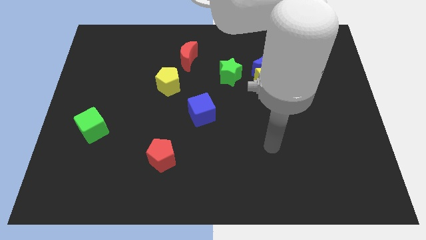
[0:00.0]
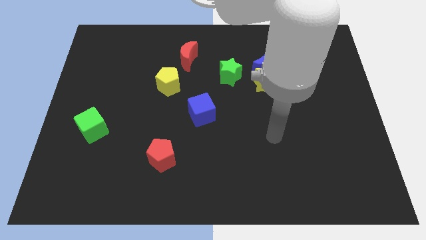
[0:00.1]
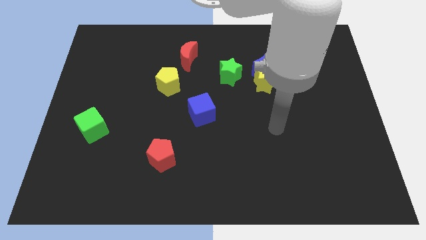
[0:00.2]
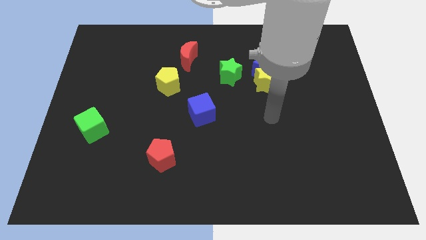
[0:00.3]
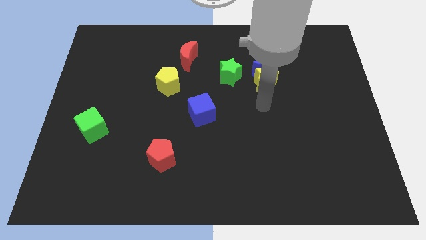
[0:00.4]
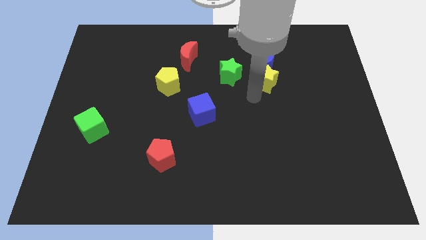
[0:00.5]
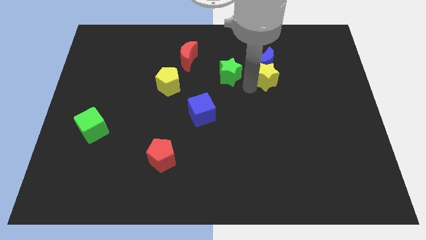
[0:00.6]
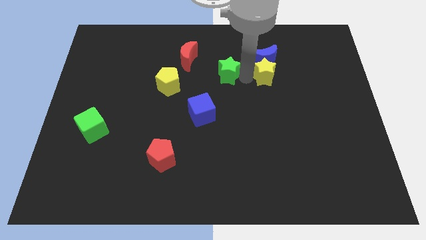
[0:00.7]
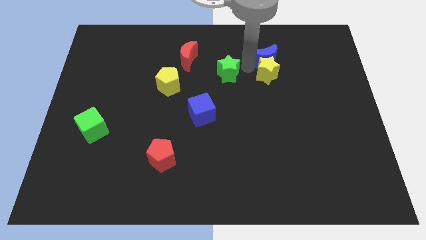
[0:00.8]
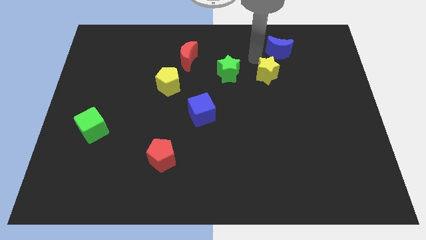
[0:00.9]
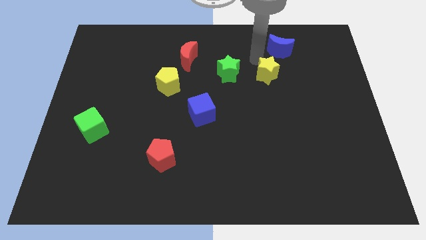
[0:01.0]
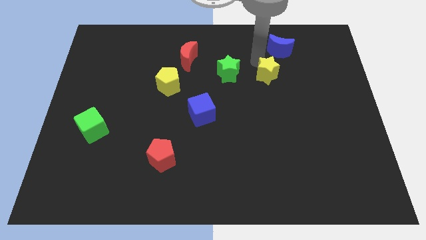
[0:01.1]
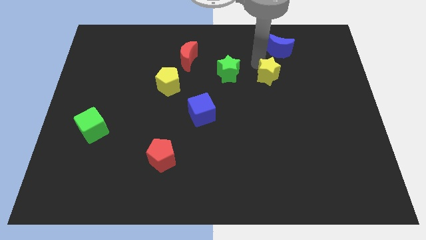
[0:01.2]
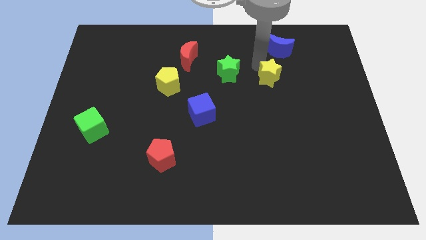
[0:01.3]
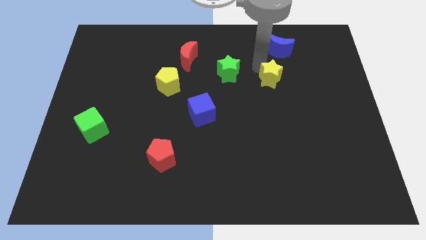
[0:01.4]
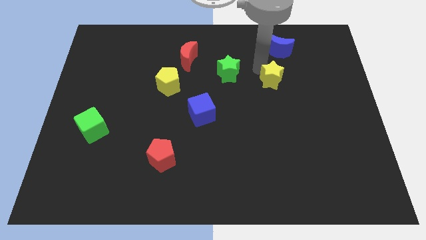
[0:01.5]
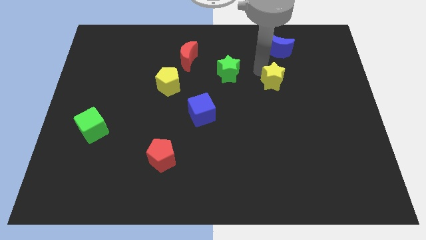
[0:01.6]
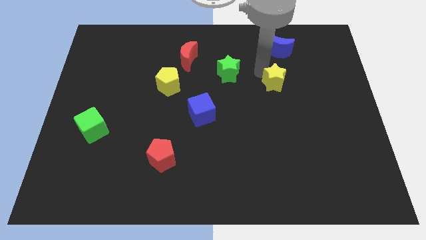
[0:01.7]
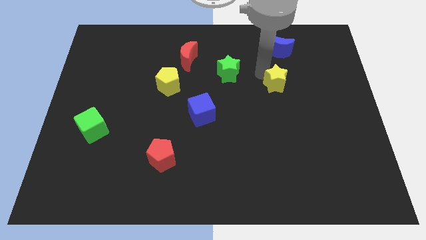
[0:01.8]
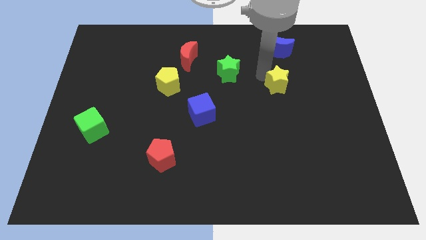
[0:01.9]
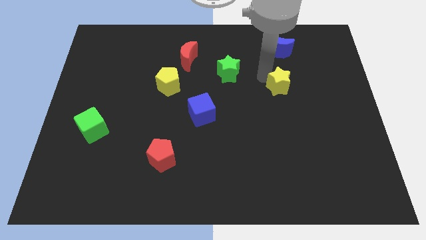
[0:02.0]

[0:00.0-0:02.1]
move the yellow star away from the blue moon and green star

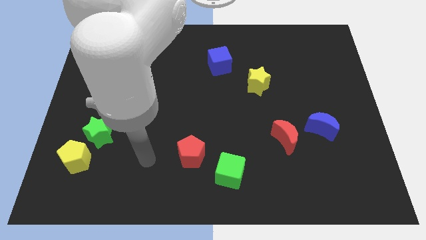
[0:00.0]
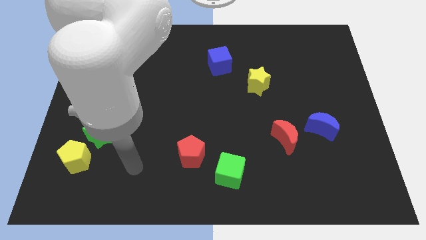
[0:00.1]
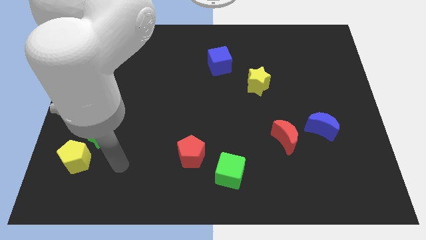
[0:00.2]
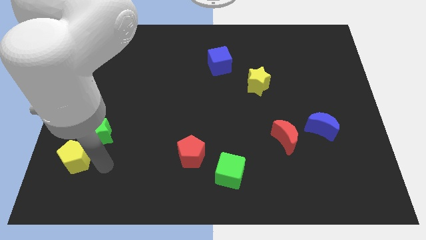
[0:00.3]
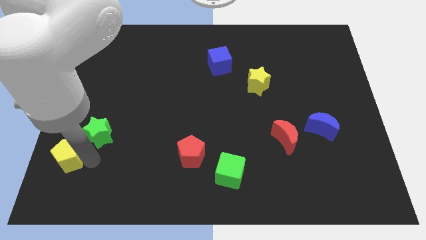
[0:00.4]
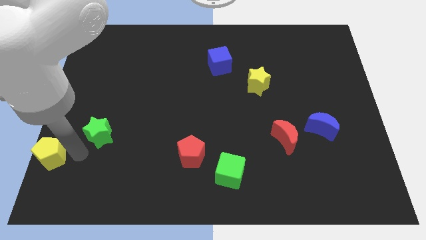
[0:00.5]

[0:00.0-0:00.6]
pull the green star apart from the yellow pentagon

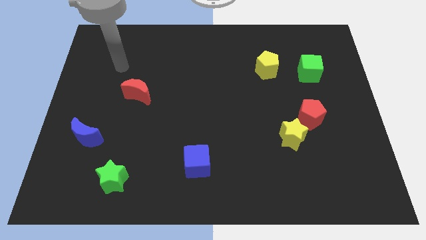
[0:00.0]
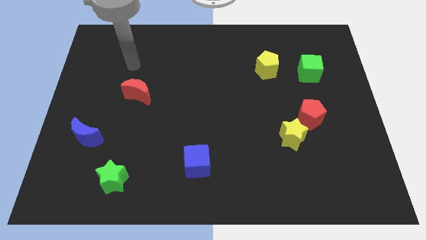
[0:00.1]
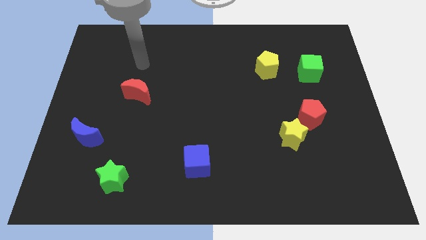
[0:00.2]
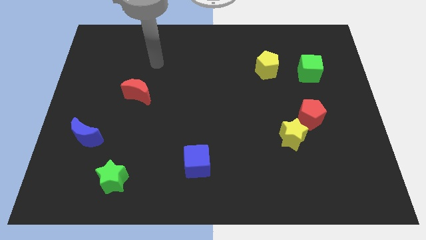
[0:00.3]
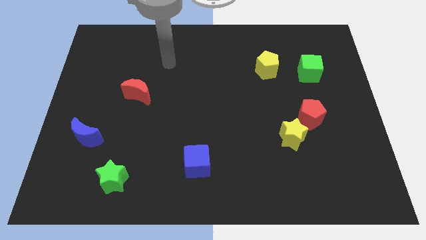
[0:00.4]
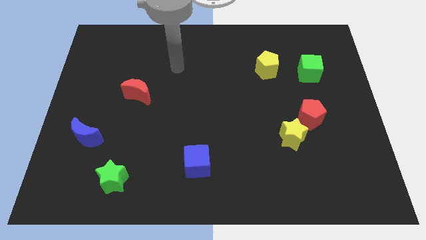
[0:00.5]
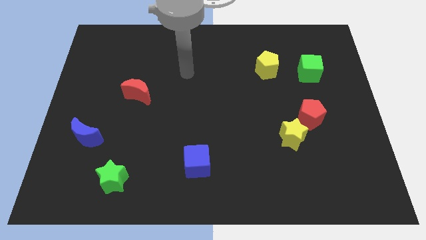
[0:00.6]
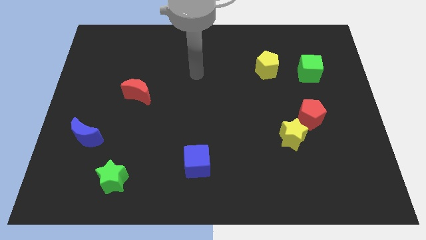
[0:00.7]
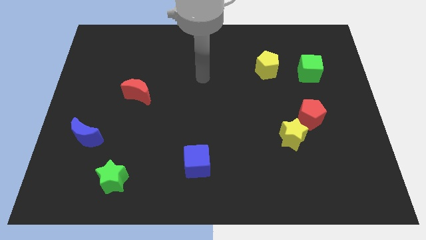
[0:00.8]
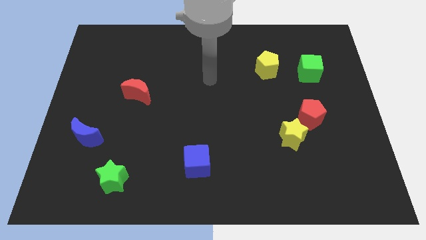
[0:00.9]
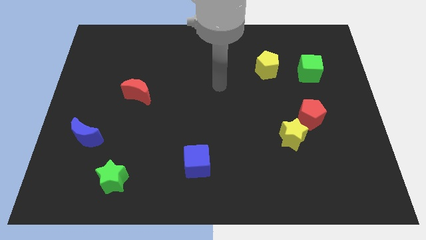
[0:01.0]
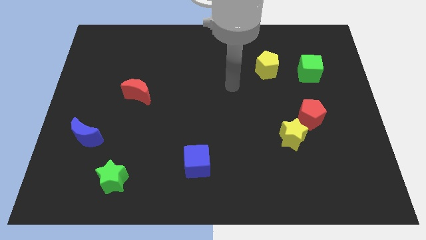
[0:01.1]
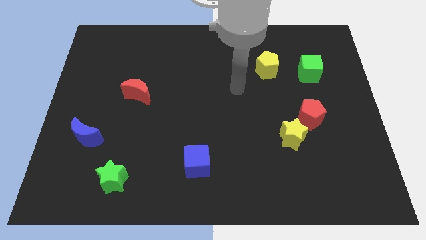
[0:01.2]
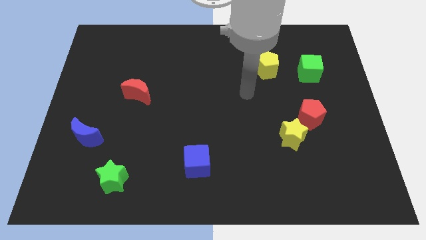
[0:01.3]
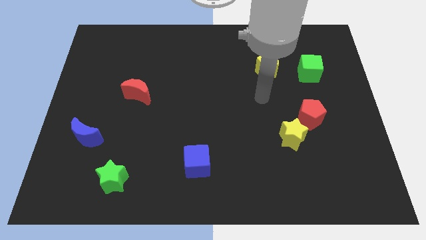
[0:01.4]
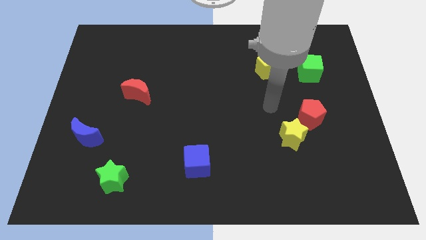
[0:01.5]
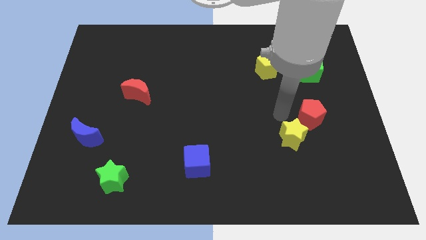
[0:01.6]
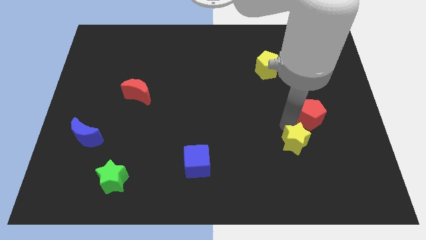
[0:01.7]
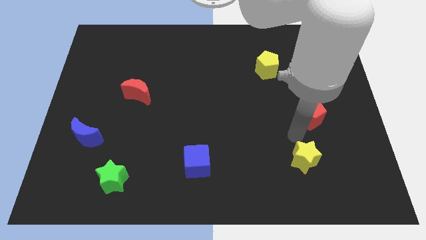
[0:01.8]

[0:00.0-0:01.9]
move the red pentagon away from the yellow star

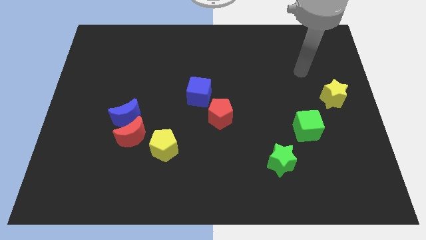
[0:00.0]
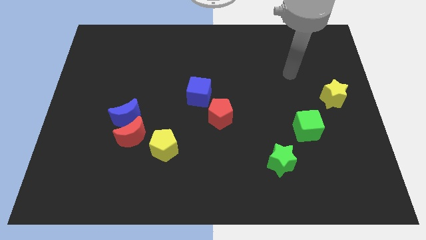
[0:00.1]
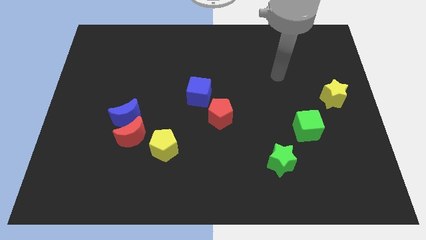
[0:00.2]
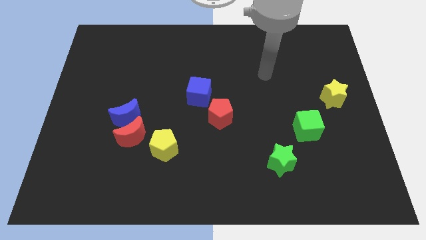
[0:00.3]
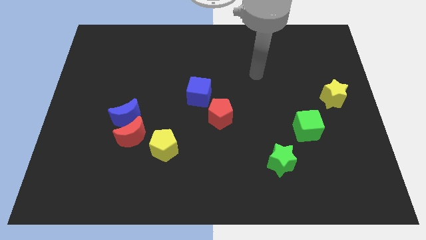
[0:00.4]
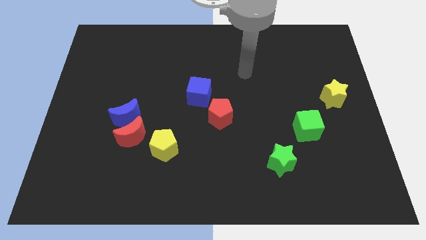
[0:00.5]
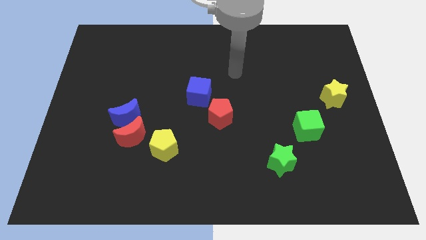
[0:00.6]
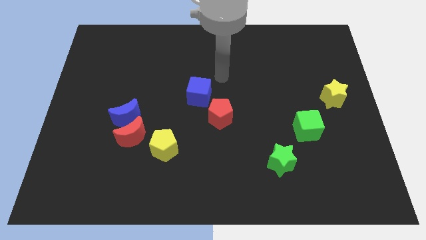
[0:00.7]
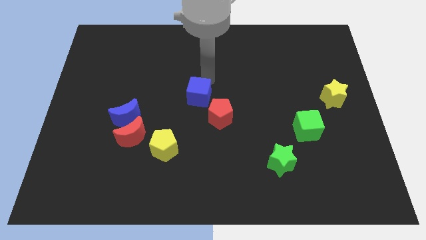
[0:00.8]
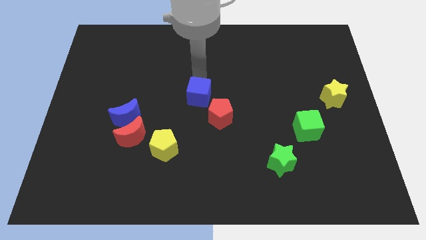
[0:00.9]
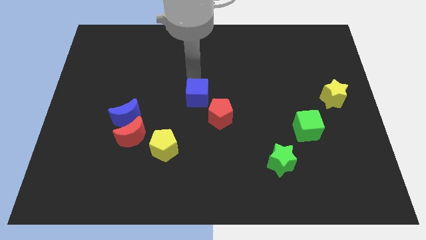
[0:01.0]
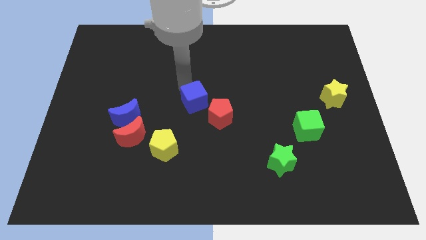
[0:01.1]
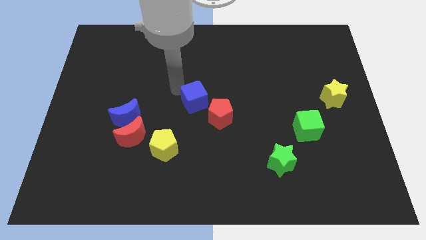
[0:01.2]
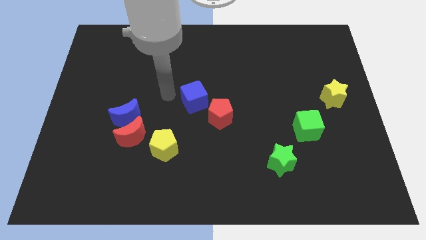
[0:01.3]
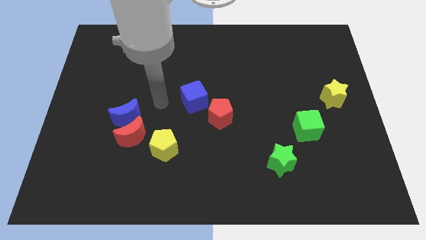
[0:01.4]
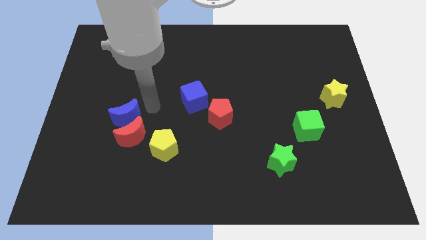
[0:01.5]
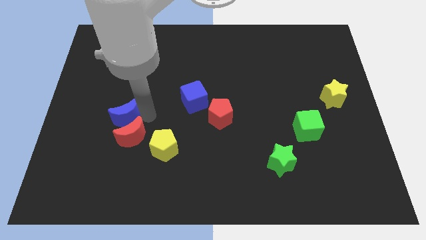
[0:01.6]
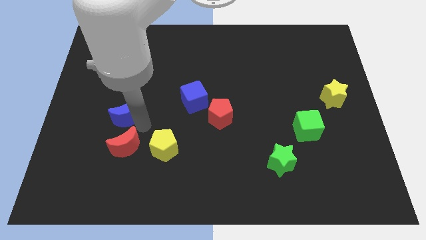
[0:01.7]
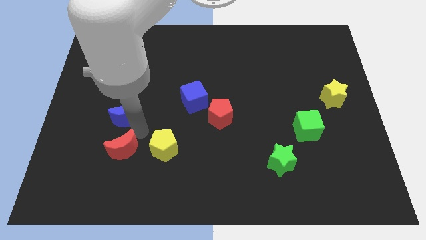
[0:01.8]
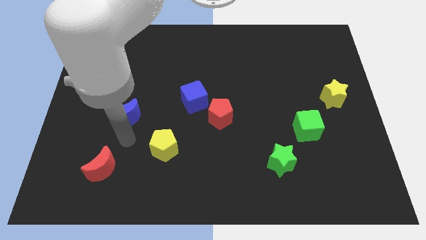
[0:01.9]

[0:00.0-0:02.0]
pull the blue moon apart from the red moon

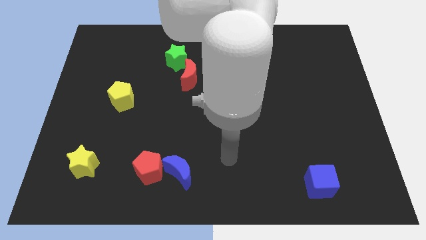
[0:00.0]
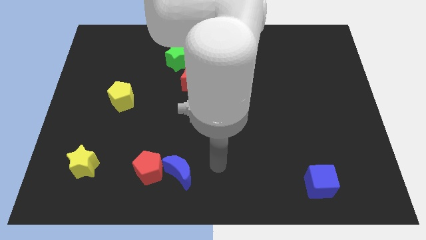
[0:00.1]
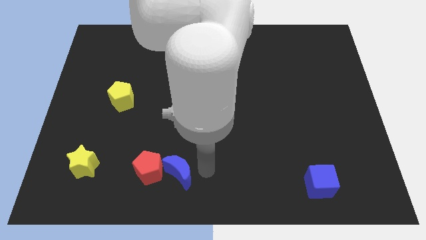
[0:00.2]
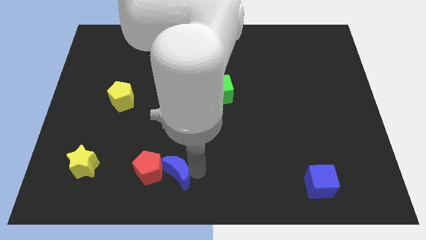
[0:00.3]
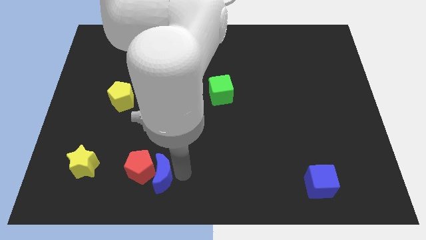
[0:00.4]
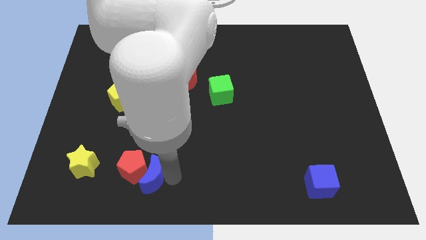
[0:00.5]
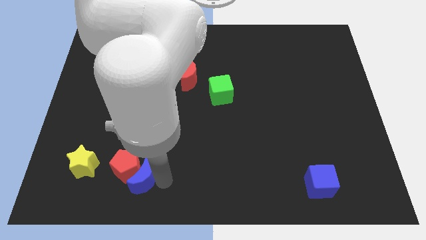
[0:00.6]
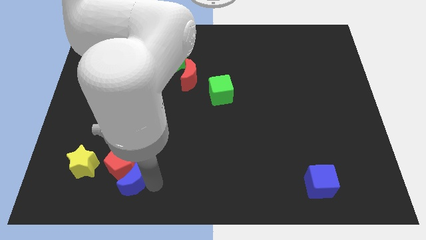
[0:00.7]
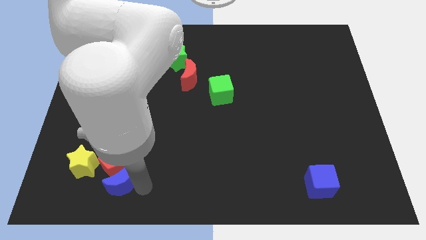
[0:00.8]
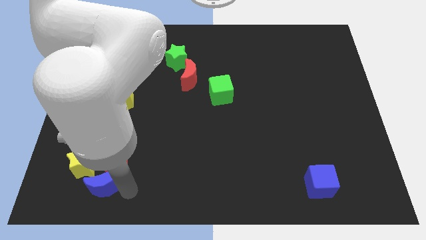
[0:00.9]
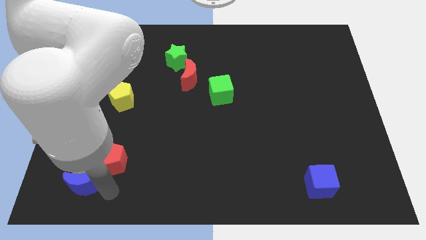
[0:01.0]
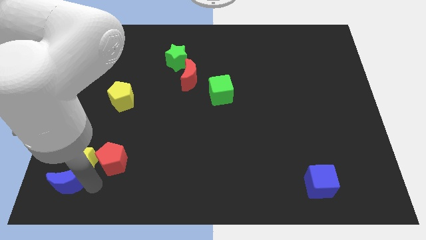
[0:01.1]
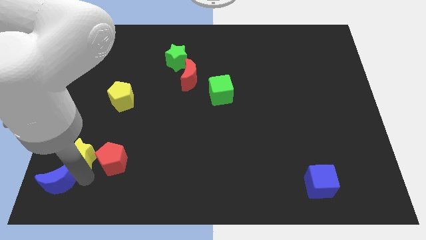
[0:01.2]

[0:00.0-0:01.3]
separate the red pentagon from the blue moon

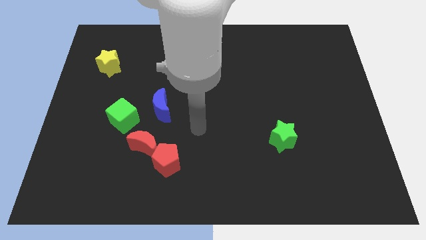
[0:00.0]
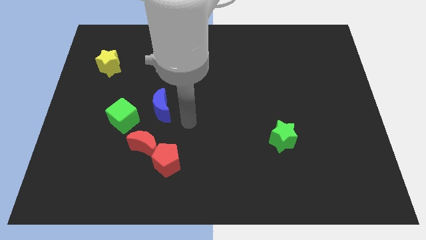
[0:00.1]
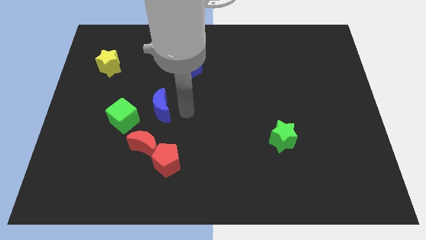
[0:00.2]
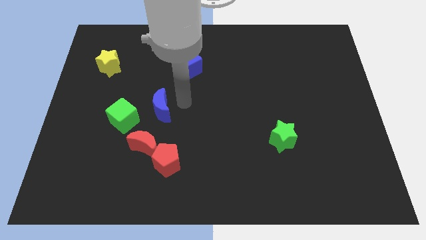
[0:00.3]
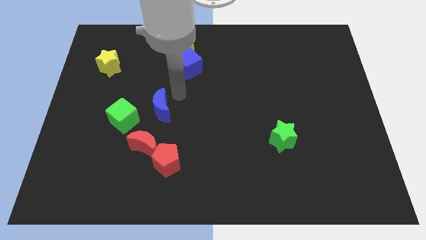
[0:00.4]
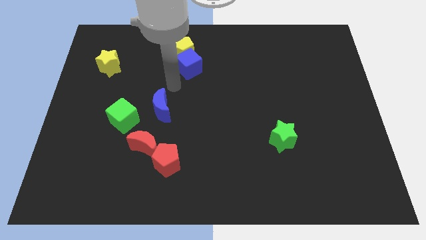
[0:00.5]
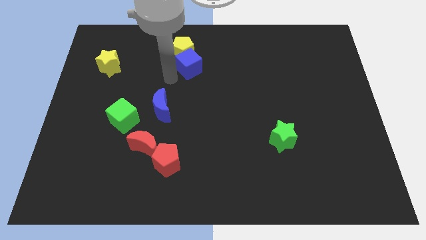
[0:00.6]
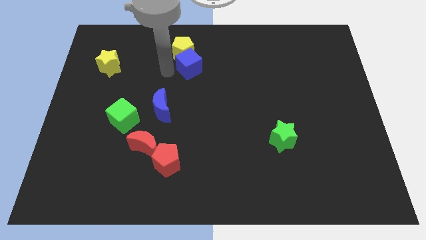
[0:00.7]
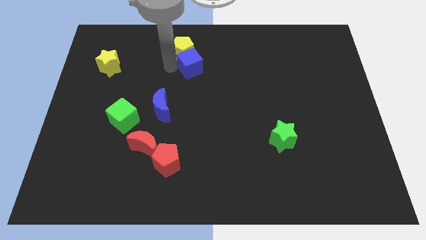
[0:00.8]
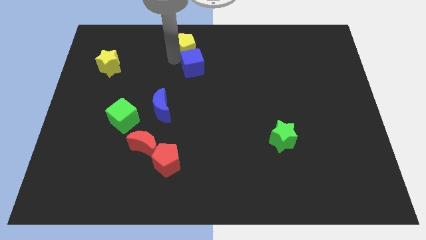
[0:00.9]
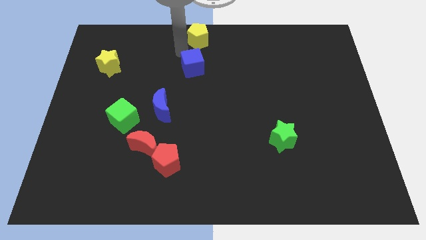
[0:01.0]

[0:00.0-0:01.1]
pull the blue cube apart from the yellow pentagon

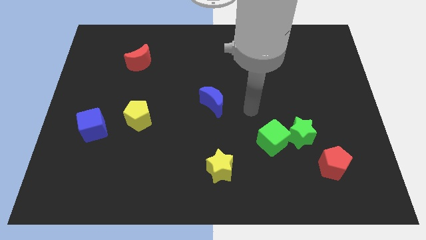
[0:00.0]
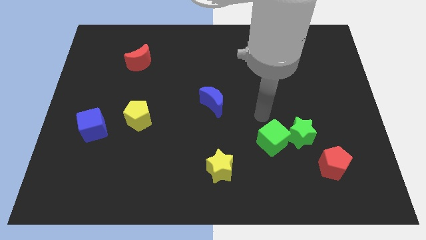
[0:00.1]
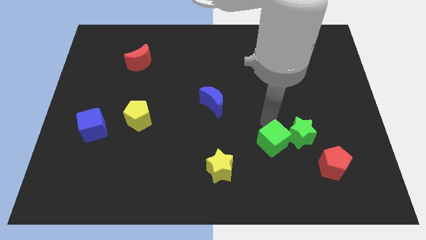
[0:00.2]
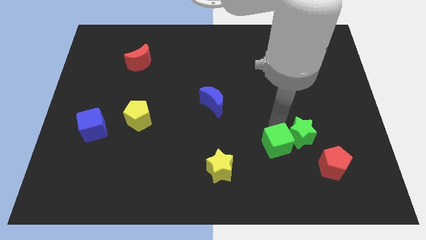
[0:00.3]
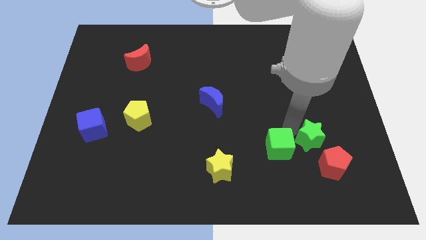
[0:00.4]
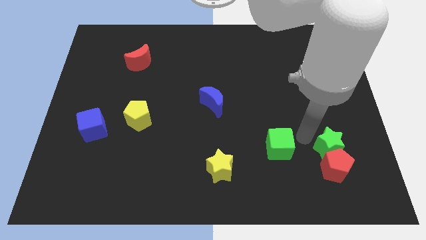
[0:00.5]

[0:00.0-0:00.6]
pull the green cube apart from the green star
